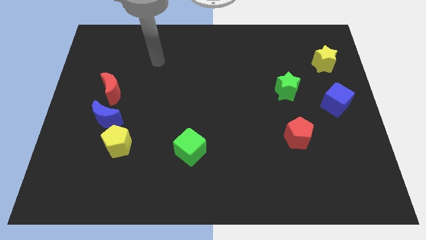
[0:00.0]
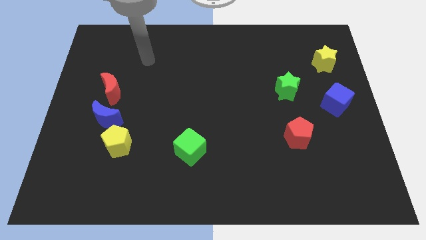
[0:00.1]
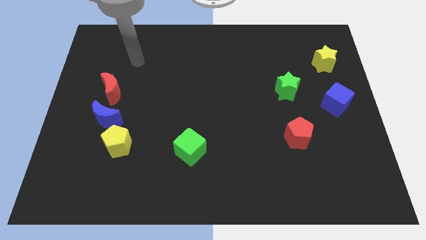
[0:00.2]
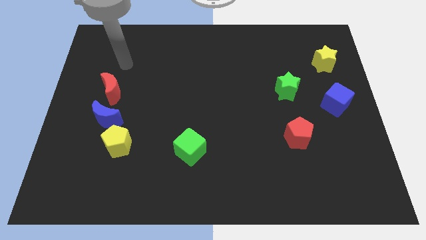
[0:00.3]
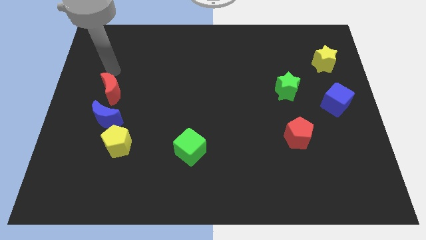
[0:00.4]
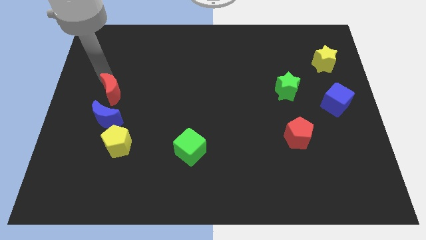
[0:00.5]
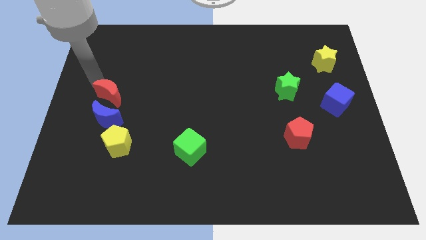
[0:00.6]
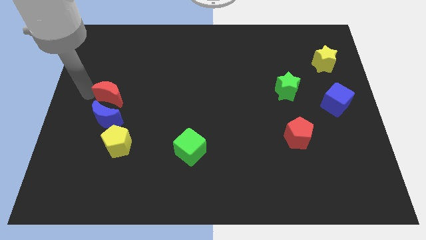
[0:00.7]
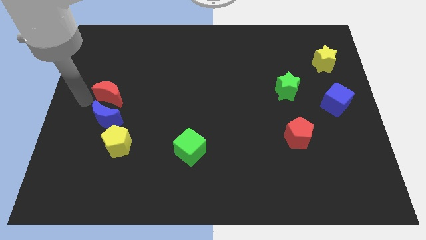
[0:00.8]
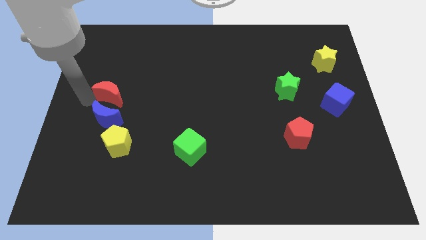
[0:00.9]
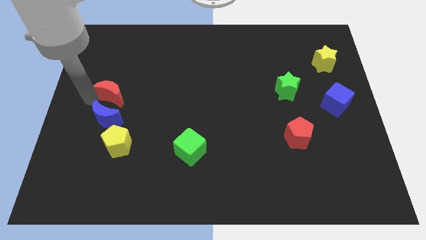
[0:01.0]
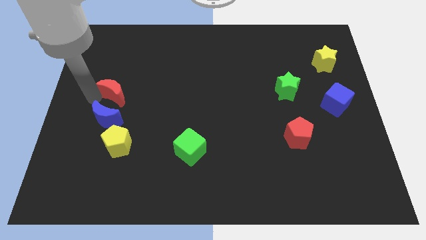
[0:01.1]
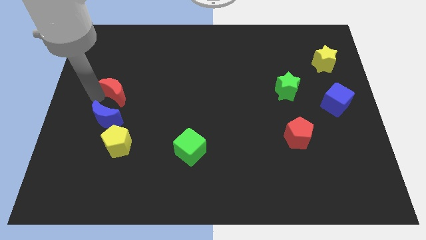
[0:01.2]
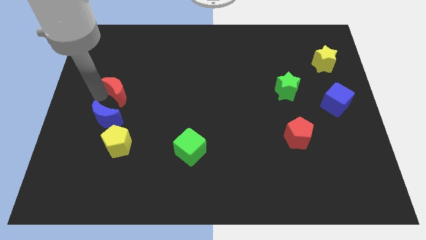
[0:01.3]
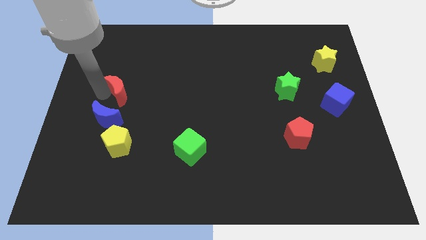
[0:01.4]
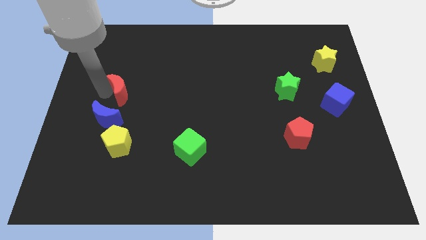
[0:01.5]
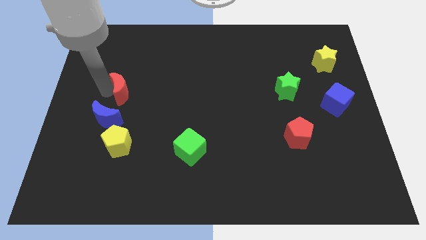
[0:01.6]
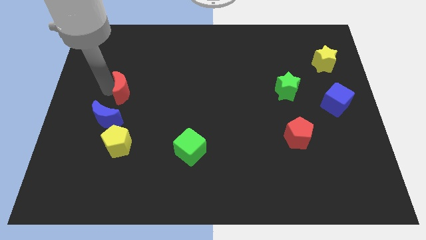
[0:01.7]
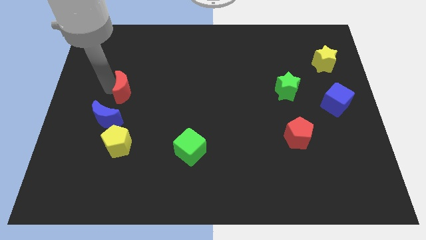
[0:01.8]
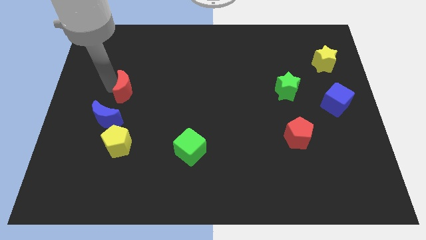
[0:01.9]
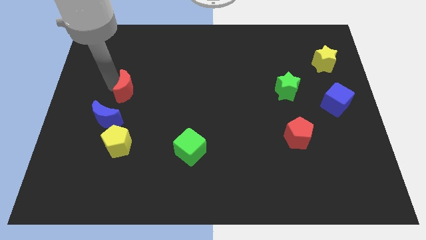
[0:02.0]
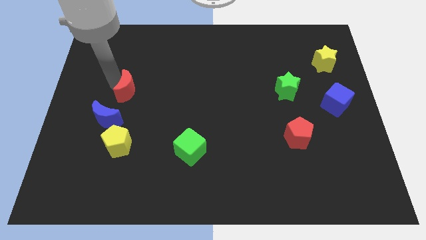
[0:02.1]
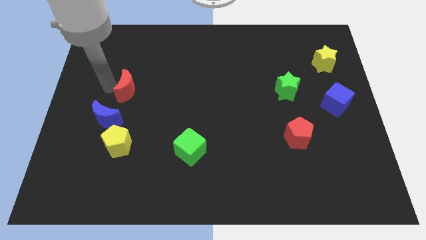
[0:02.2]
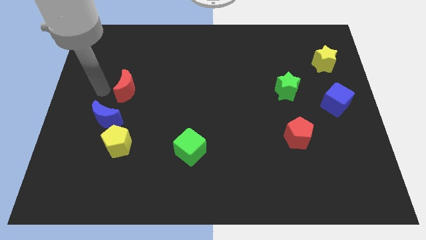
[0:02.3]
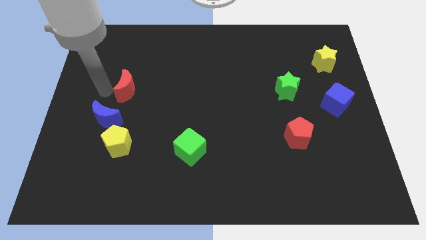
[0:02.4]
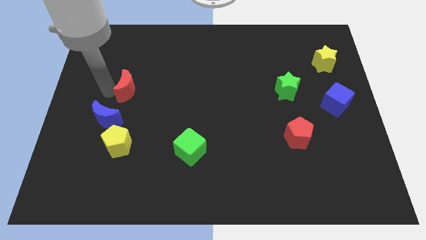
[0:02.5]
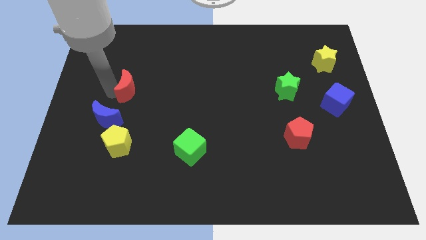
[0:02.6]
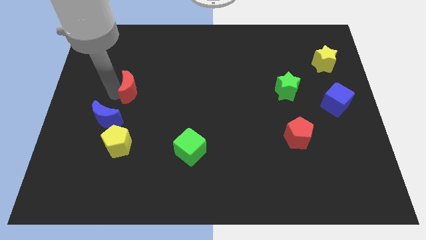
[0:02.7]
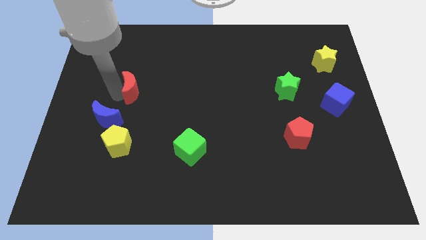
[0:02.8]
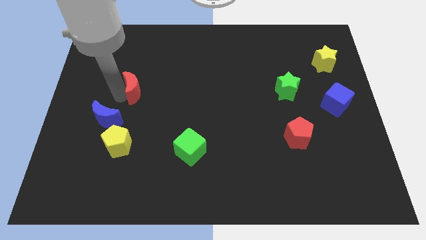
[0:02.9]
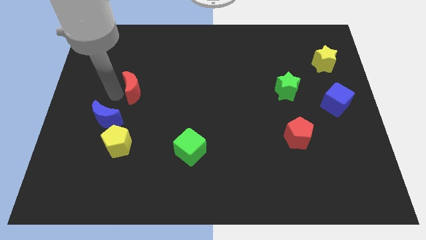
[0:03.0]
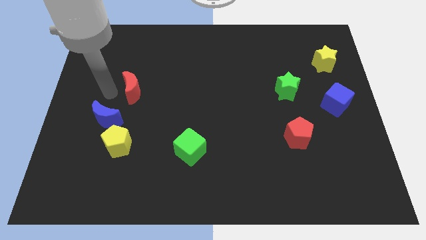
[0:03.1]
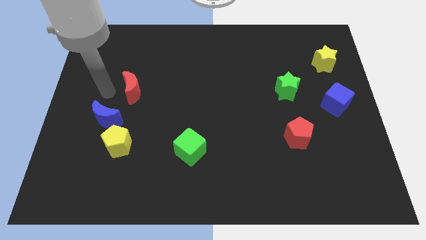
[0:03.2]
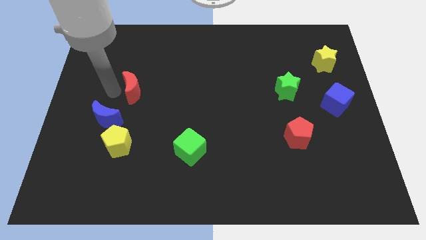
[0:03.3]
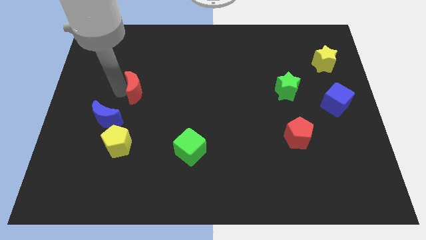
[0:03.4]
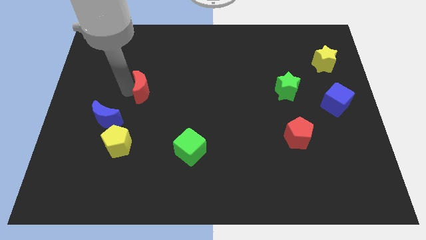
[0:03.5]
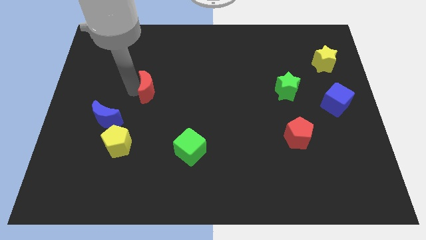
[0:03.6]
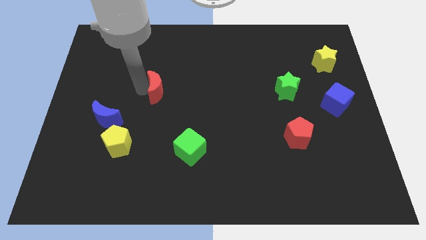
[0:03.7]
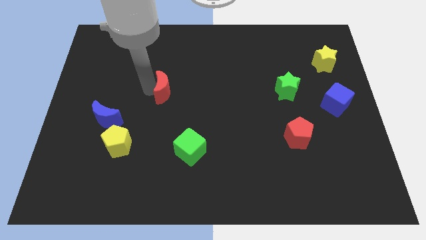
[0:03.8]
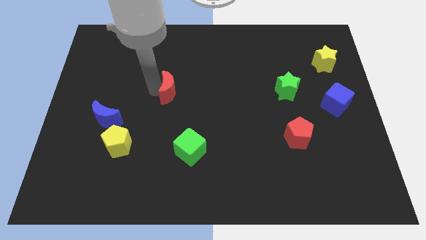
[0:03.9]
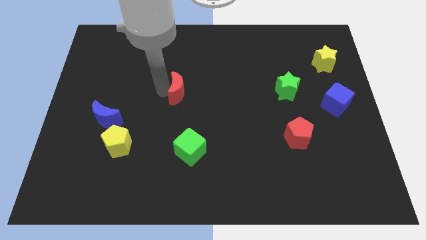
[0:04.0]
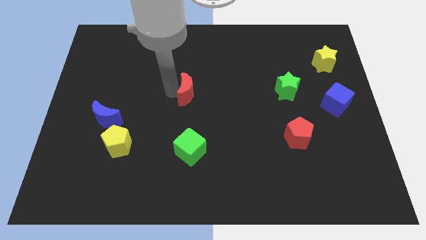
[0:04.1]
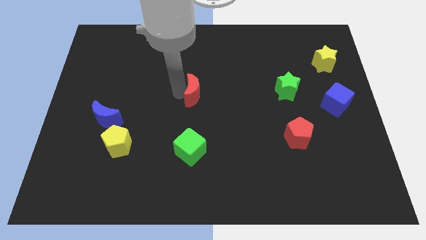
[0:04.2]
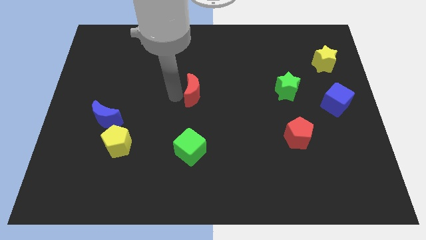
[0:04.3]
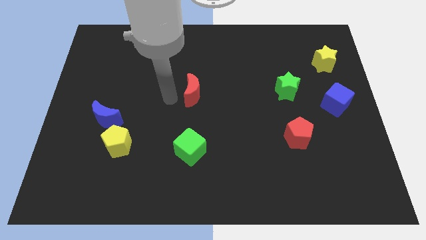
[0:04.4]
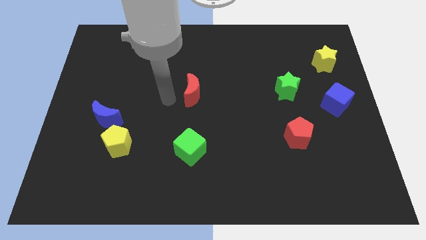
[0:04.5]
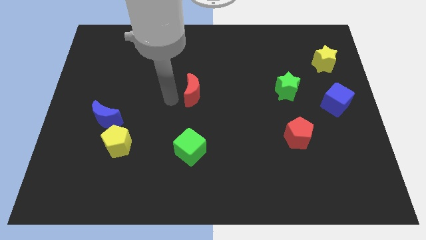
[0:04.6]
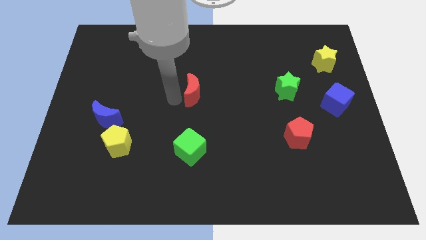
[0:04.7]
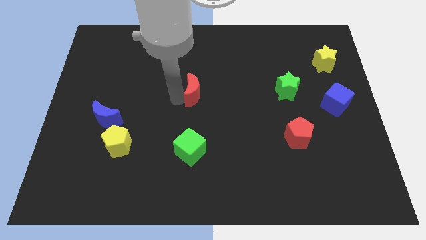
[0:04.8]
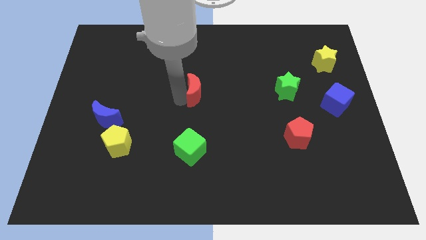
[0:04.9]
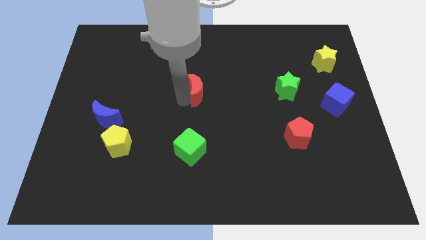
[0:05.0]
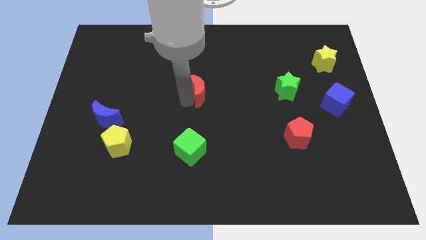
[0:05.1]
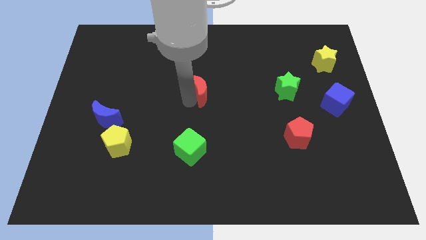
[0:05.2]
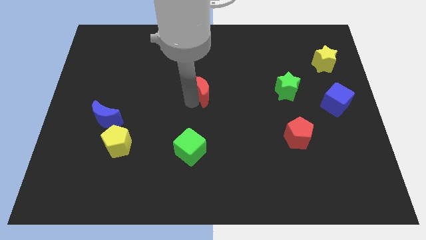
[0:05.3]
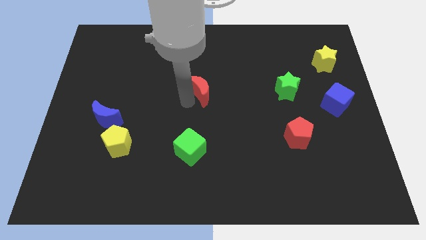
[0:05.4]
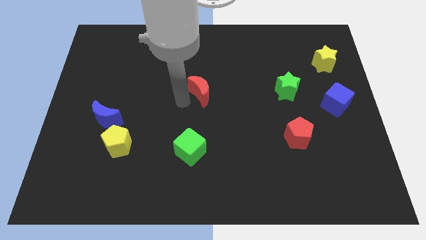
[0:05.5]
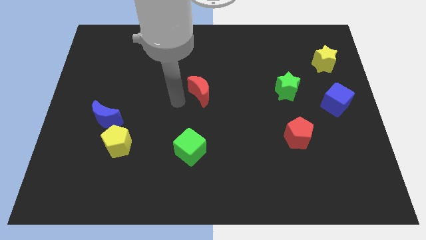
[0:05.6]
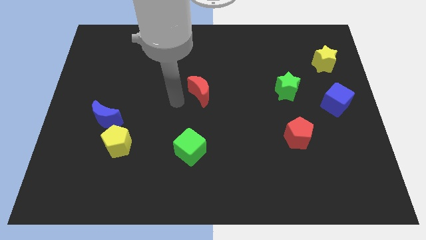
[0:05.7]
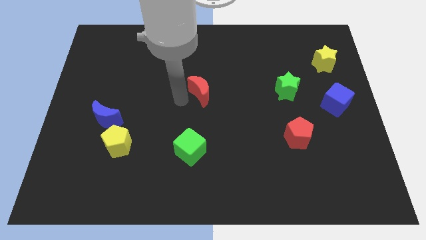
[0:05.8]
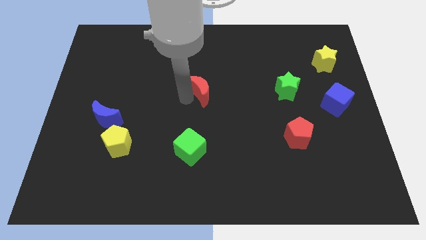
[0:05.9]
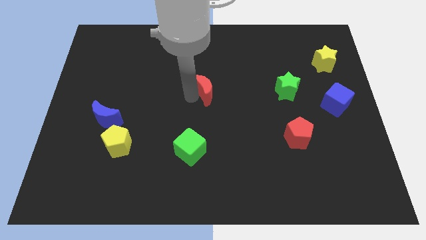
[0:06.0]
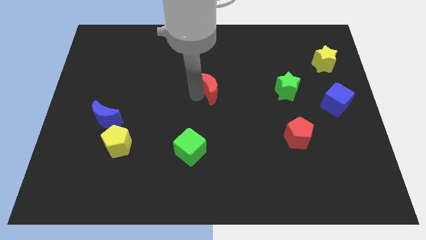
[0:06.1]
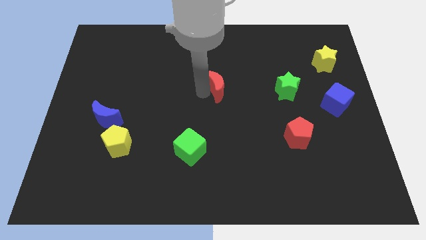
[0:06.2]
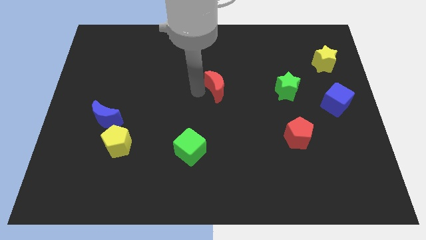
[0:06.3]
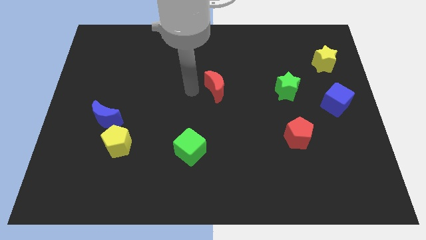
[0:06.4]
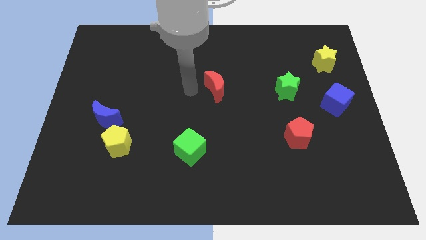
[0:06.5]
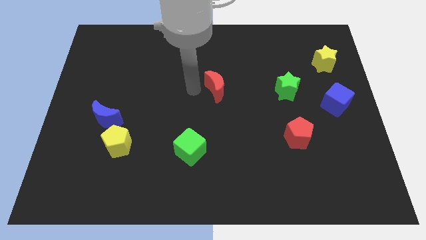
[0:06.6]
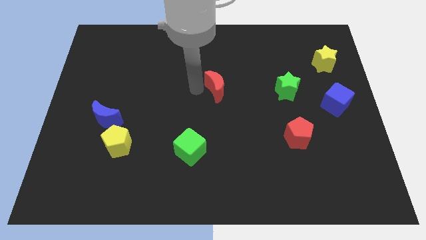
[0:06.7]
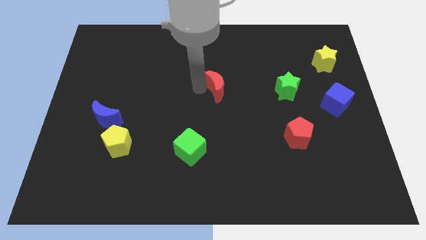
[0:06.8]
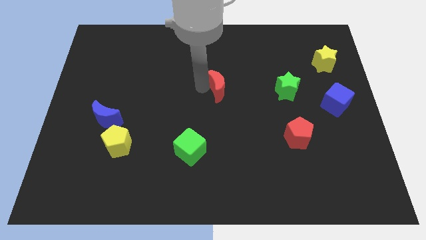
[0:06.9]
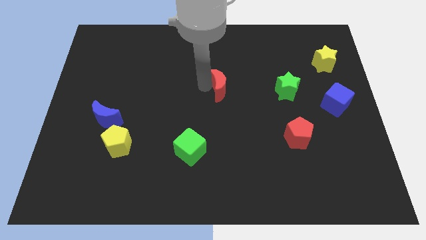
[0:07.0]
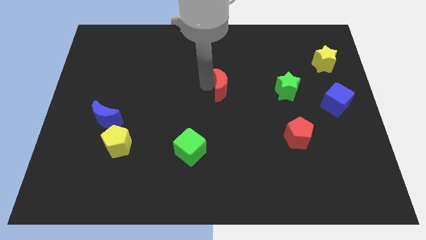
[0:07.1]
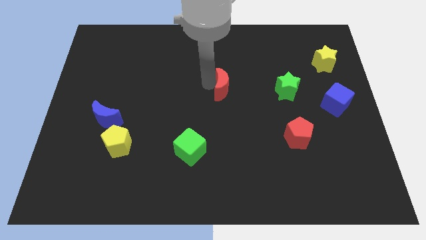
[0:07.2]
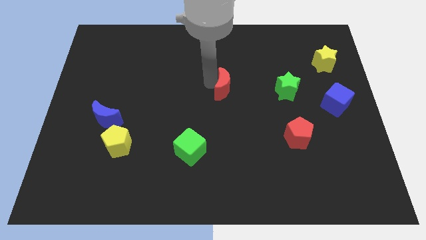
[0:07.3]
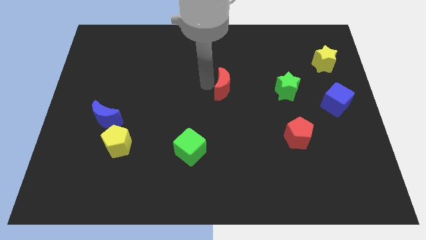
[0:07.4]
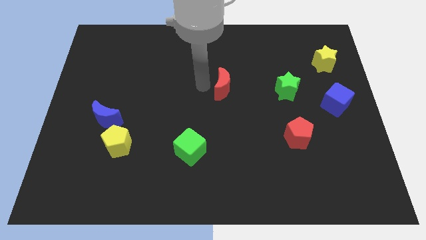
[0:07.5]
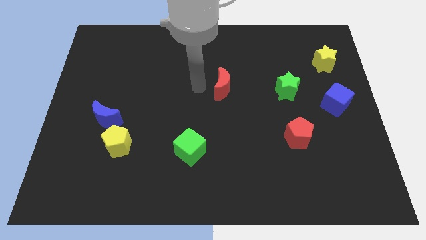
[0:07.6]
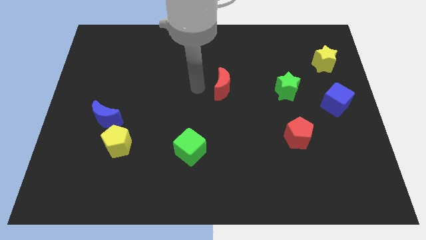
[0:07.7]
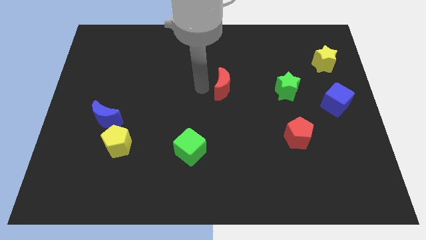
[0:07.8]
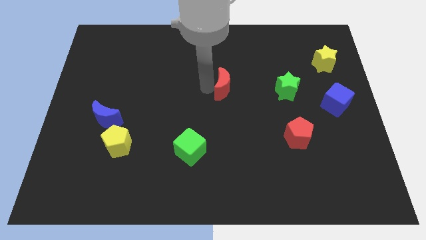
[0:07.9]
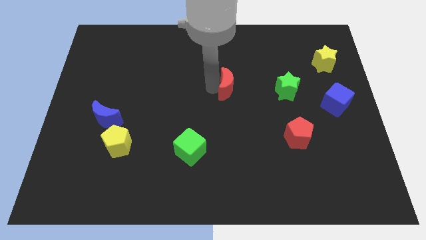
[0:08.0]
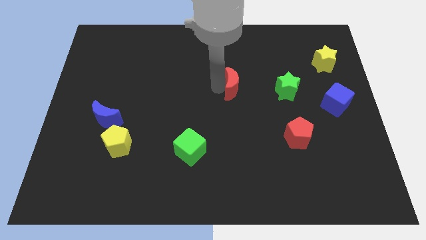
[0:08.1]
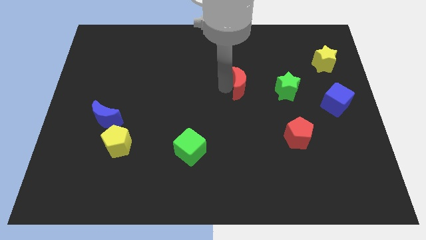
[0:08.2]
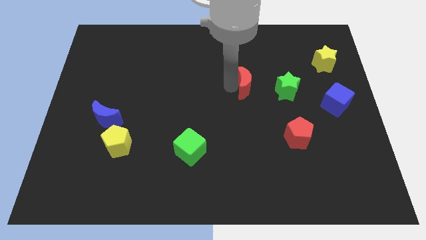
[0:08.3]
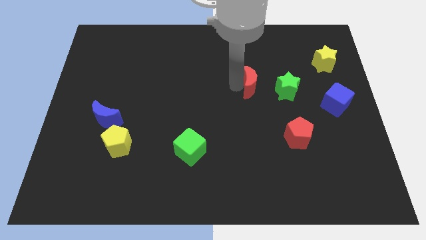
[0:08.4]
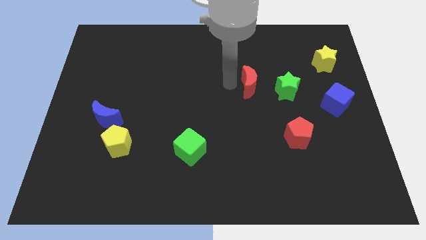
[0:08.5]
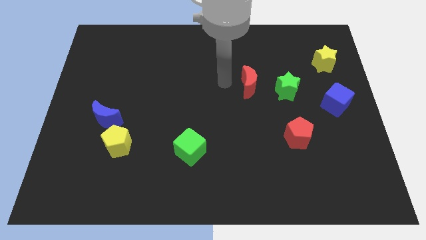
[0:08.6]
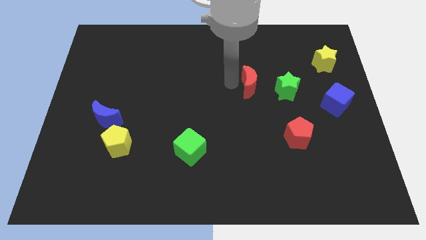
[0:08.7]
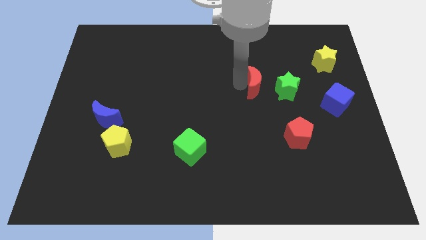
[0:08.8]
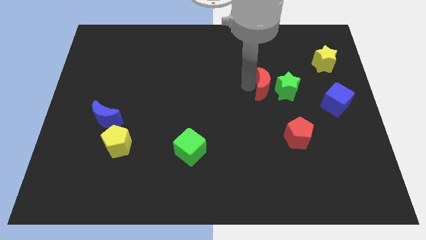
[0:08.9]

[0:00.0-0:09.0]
put the red moon to the green star
